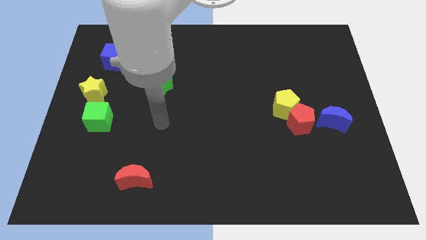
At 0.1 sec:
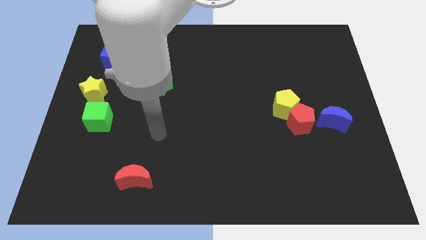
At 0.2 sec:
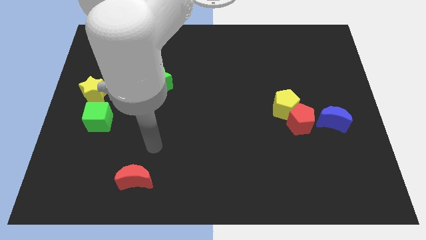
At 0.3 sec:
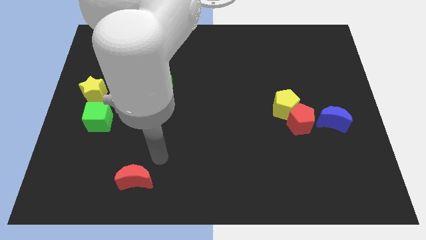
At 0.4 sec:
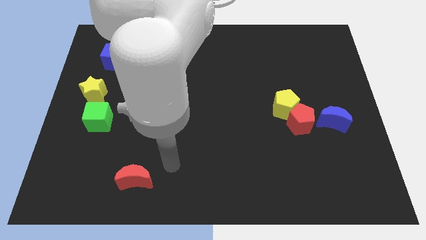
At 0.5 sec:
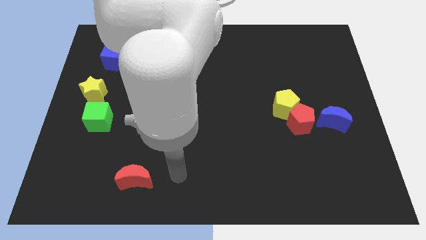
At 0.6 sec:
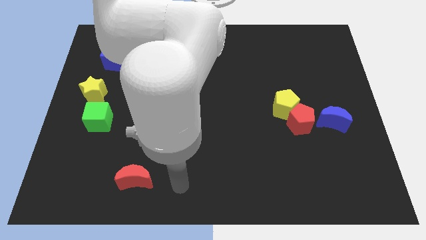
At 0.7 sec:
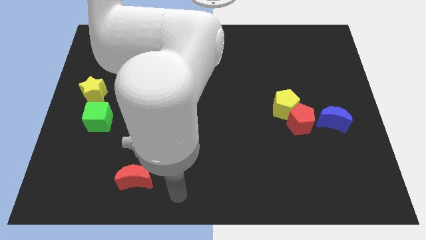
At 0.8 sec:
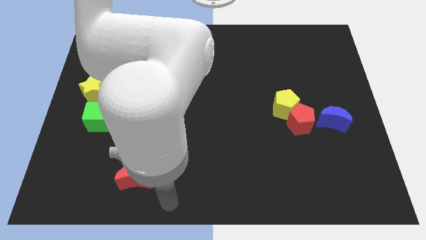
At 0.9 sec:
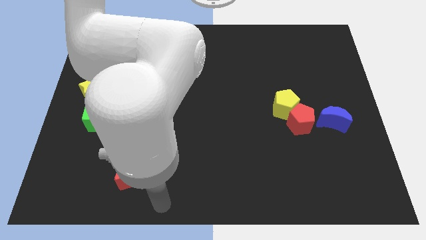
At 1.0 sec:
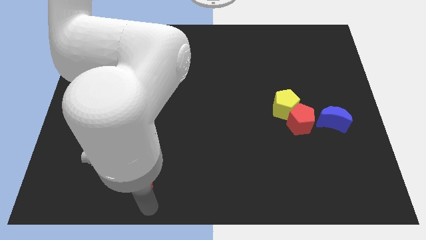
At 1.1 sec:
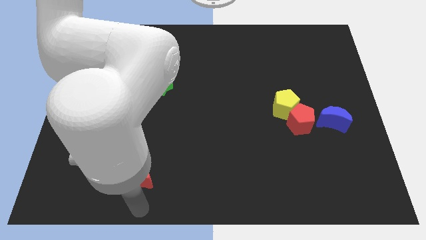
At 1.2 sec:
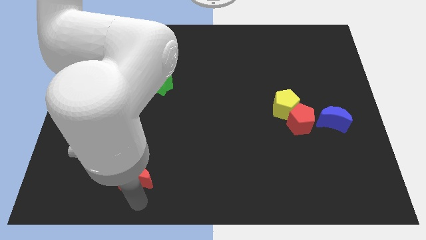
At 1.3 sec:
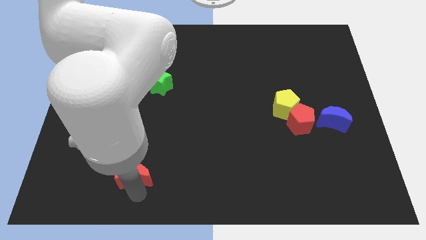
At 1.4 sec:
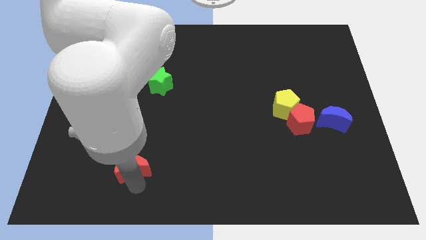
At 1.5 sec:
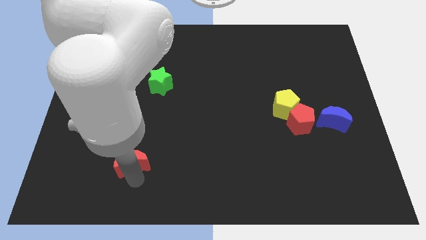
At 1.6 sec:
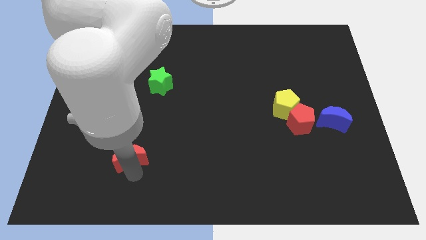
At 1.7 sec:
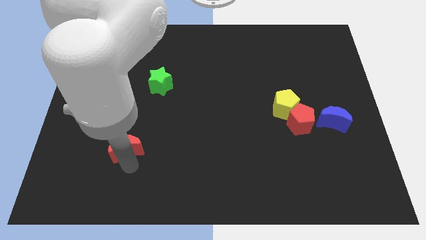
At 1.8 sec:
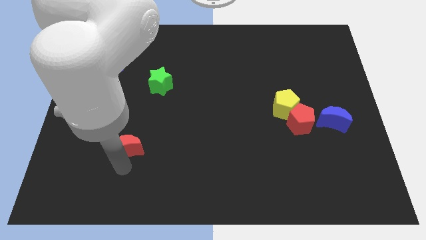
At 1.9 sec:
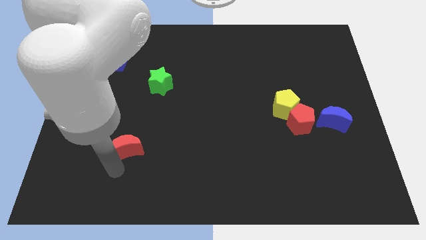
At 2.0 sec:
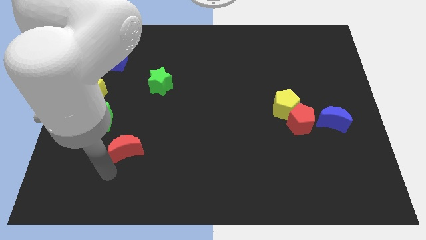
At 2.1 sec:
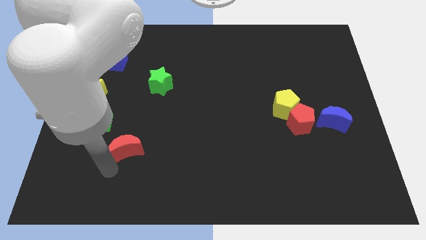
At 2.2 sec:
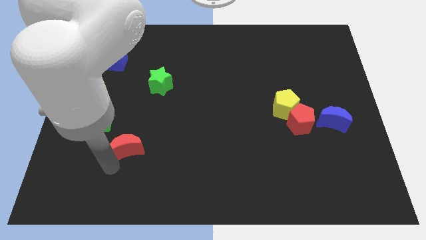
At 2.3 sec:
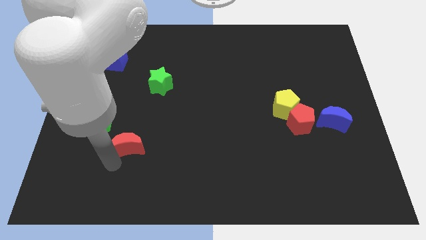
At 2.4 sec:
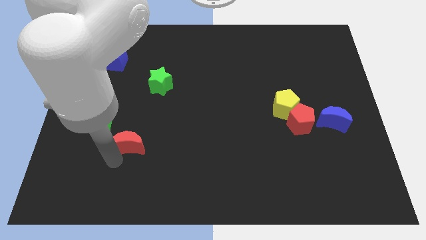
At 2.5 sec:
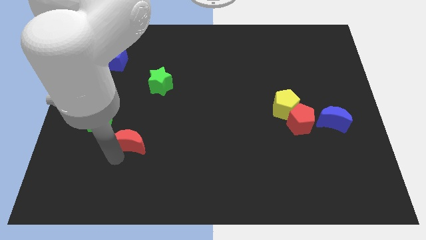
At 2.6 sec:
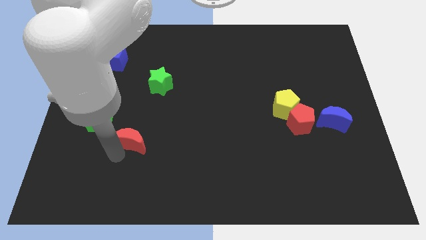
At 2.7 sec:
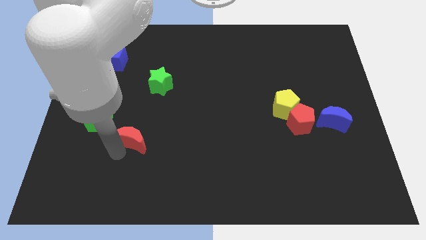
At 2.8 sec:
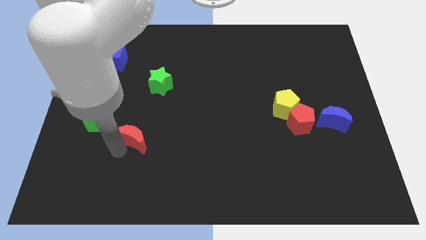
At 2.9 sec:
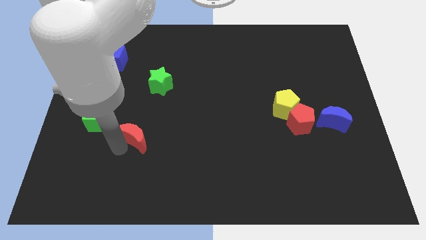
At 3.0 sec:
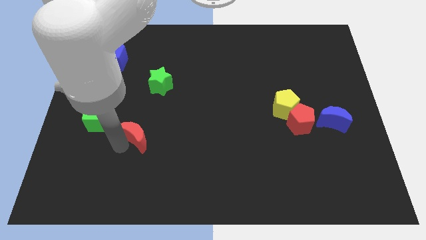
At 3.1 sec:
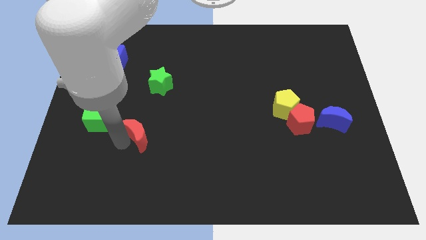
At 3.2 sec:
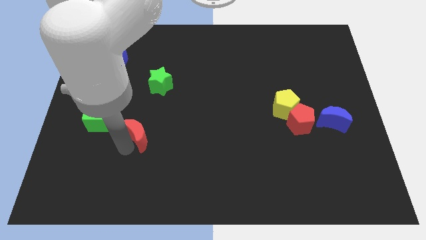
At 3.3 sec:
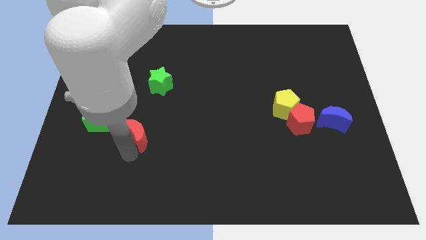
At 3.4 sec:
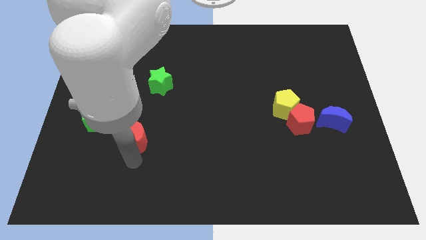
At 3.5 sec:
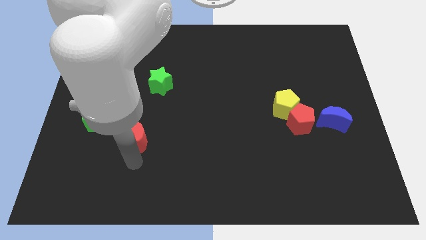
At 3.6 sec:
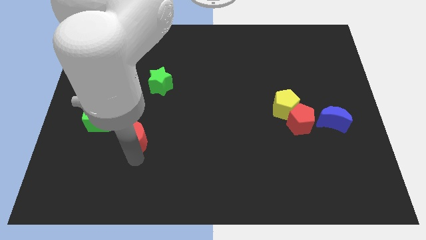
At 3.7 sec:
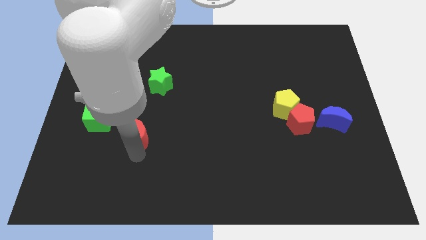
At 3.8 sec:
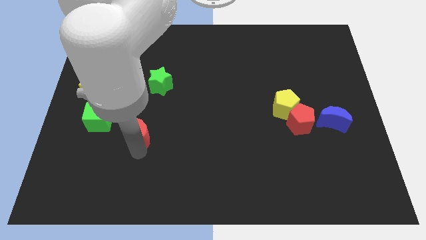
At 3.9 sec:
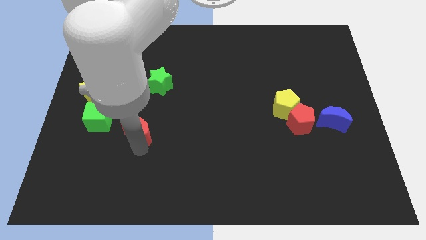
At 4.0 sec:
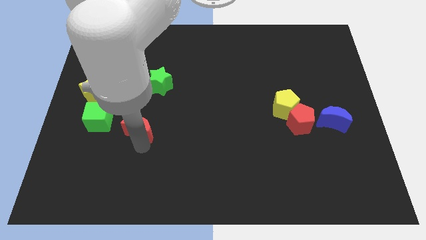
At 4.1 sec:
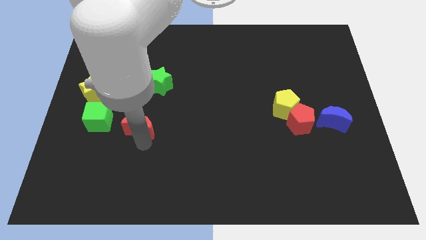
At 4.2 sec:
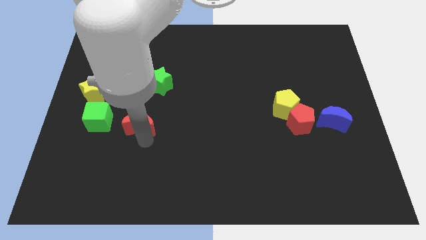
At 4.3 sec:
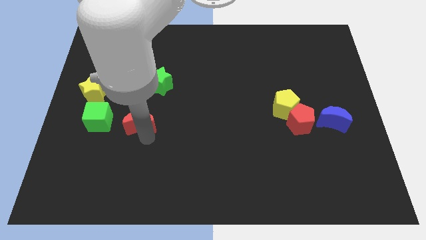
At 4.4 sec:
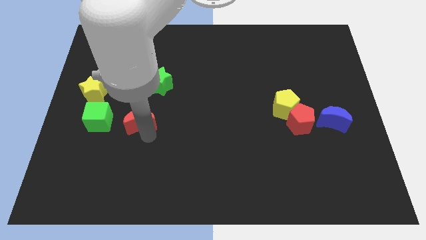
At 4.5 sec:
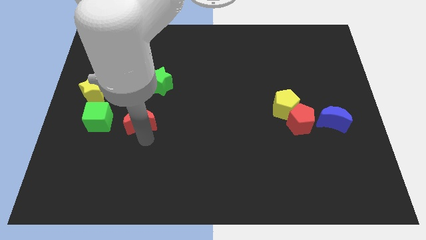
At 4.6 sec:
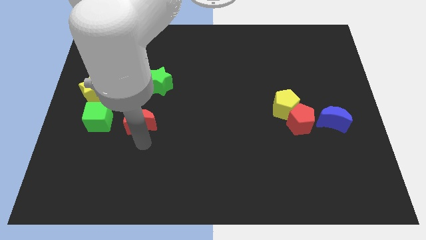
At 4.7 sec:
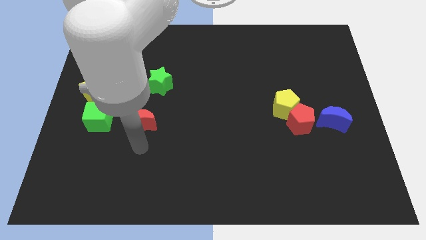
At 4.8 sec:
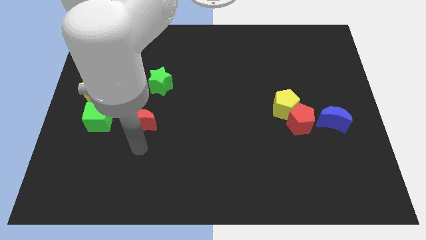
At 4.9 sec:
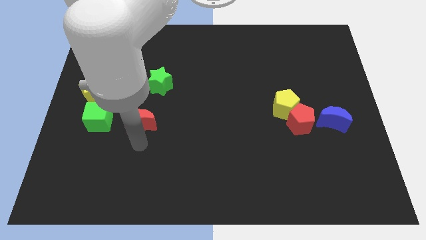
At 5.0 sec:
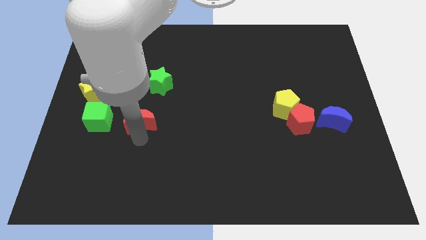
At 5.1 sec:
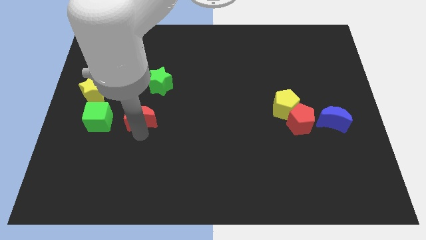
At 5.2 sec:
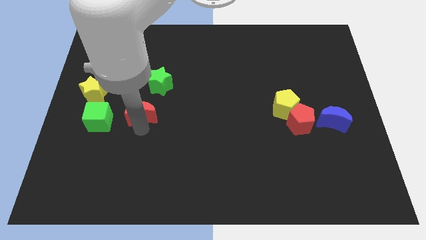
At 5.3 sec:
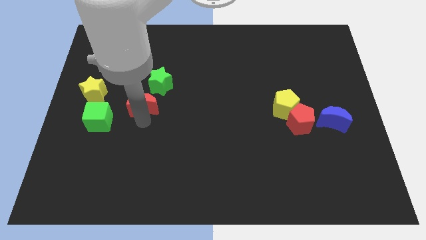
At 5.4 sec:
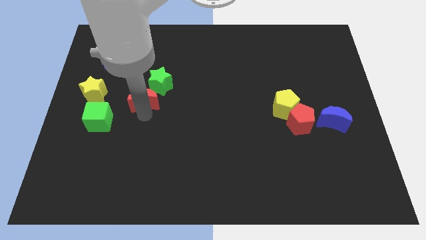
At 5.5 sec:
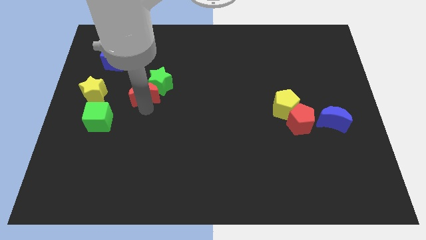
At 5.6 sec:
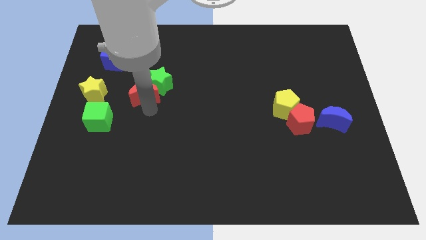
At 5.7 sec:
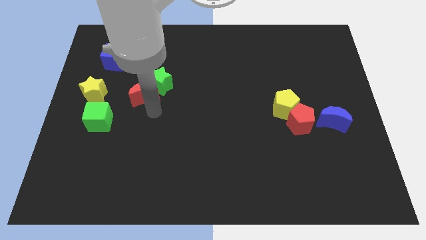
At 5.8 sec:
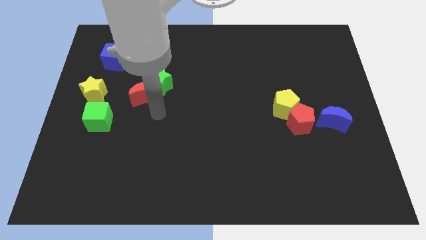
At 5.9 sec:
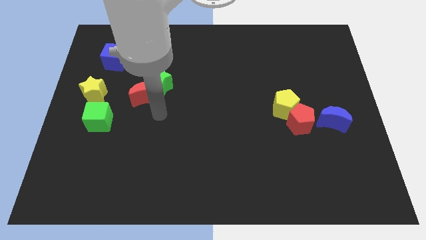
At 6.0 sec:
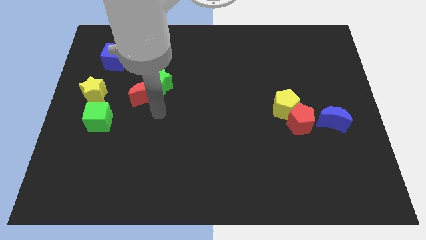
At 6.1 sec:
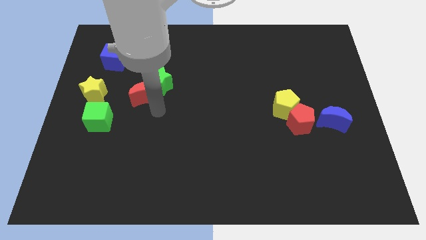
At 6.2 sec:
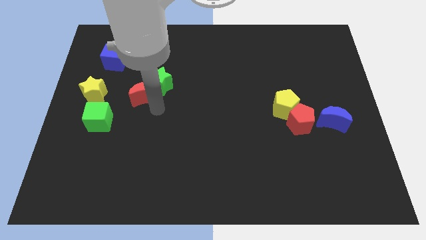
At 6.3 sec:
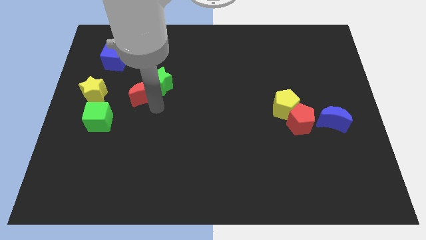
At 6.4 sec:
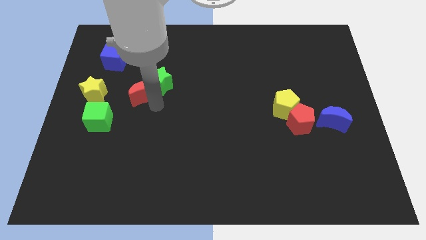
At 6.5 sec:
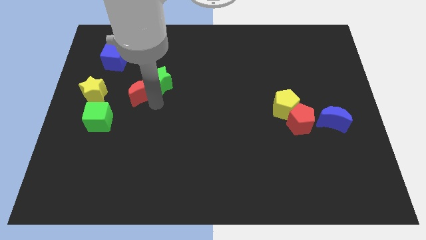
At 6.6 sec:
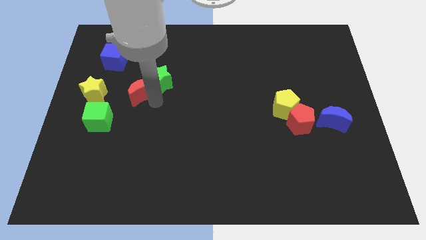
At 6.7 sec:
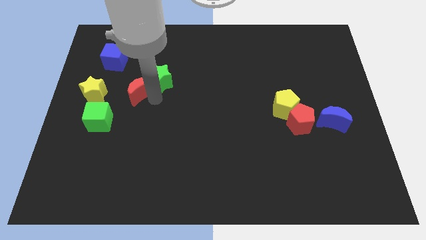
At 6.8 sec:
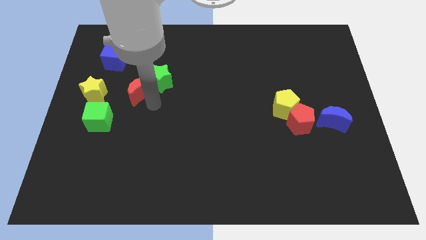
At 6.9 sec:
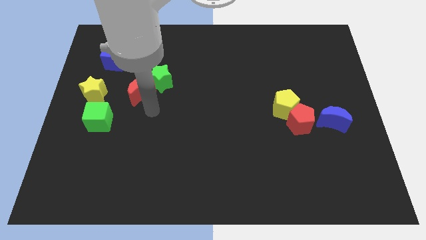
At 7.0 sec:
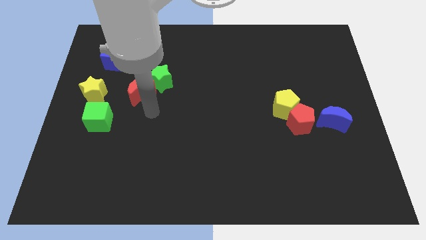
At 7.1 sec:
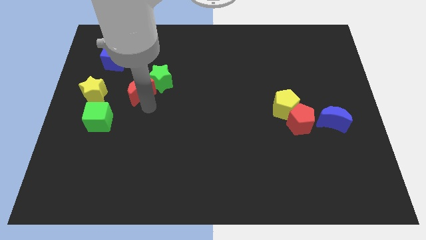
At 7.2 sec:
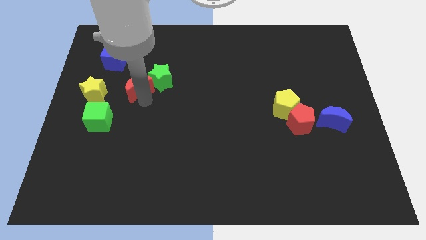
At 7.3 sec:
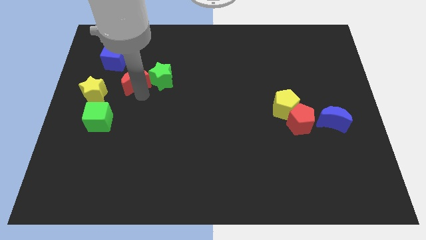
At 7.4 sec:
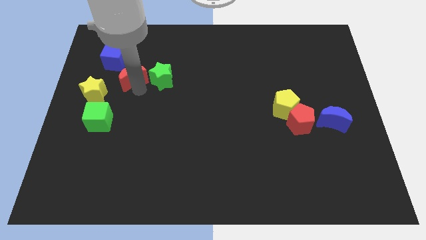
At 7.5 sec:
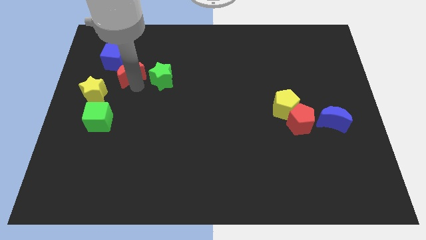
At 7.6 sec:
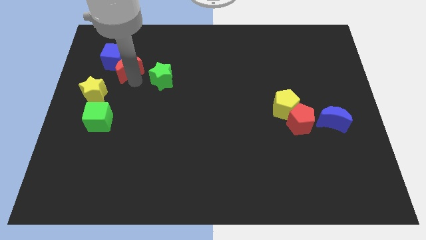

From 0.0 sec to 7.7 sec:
slide the red moon next to the blue cube
